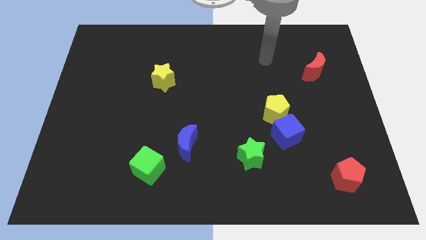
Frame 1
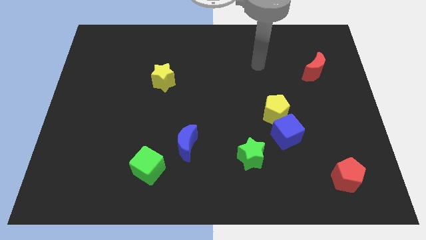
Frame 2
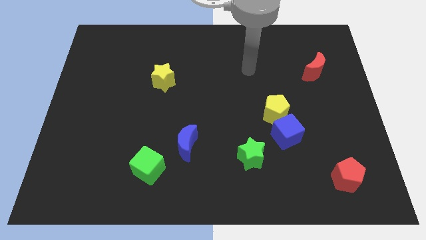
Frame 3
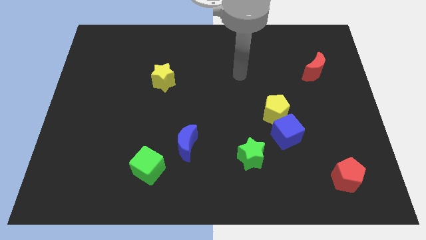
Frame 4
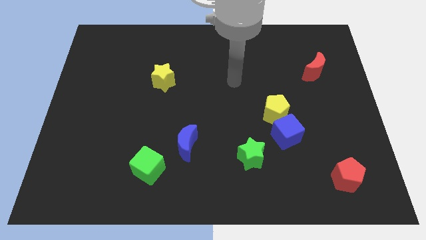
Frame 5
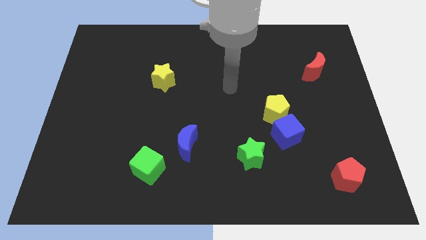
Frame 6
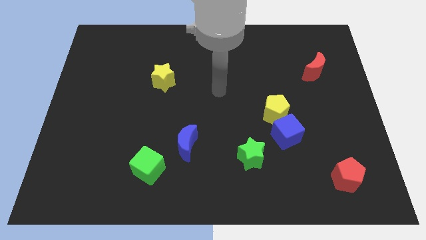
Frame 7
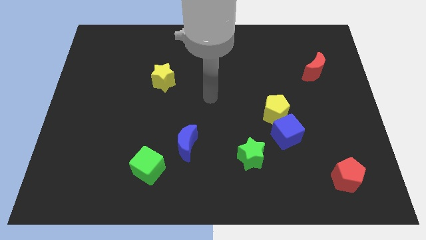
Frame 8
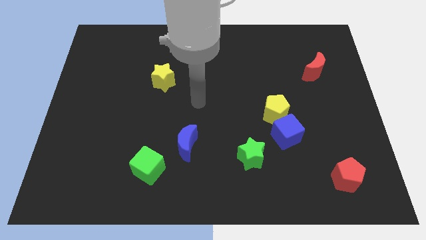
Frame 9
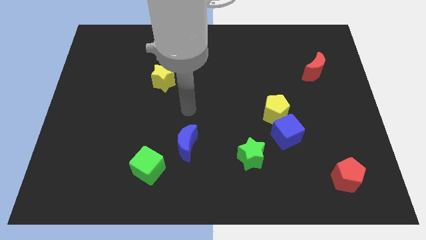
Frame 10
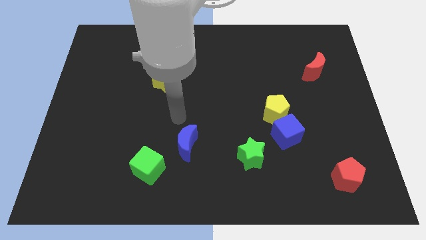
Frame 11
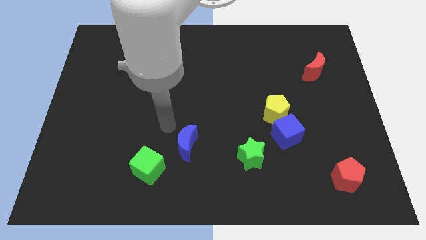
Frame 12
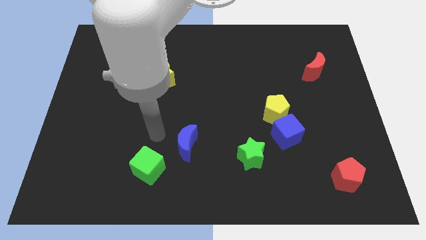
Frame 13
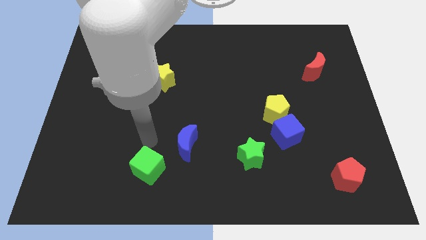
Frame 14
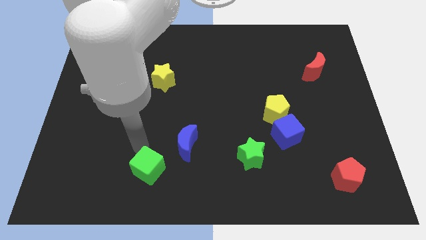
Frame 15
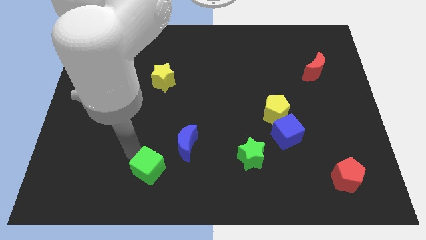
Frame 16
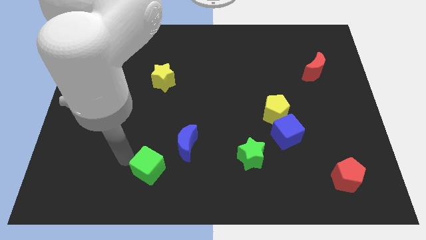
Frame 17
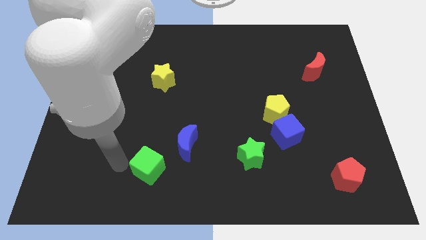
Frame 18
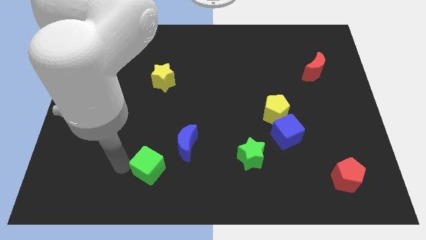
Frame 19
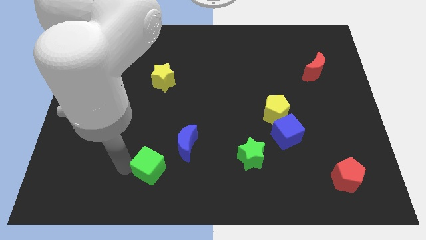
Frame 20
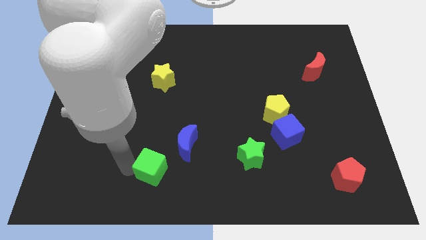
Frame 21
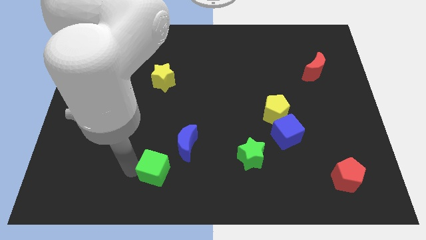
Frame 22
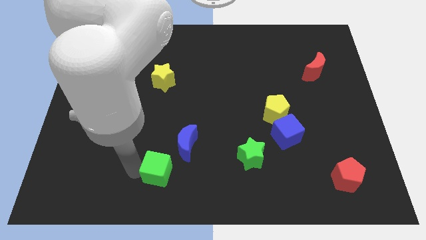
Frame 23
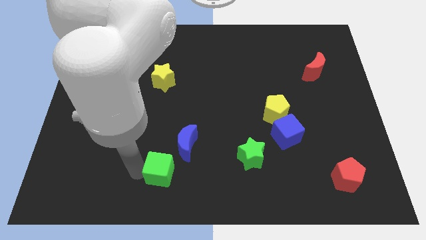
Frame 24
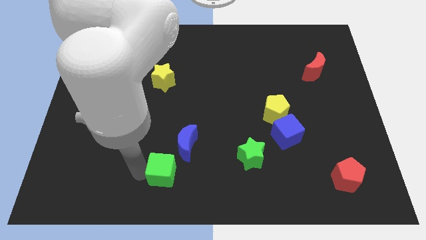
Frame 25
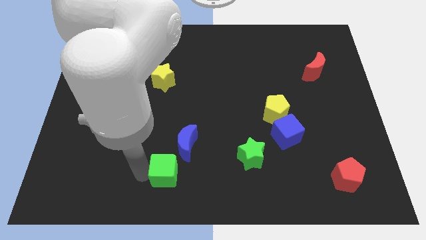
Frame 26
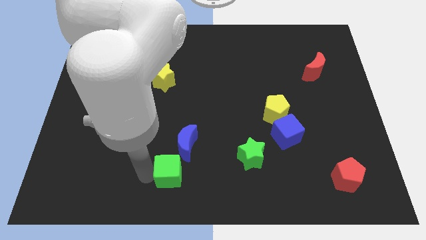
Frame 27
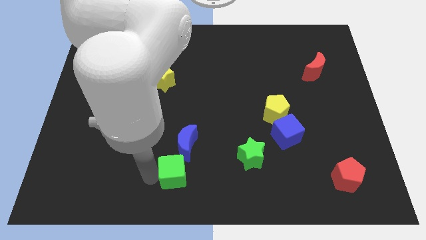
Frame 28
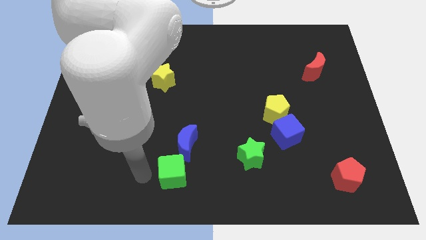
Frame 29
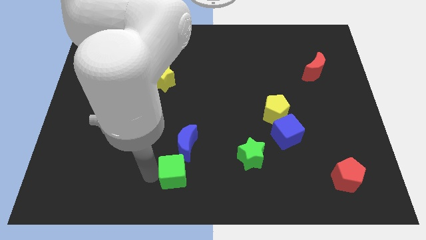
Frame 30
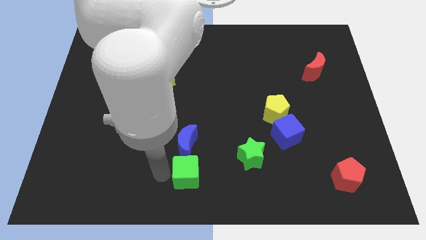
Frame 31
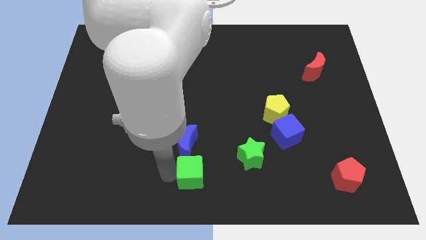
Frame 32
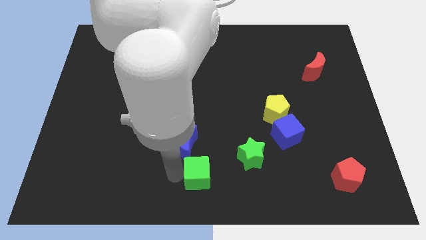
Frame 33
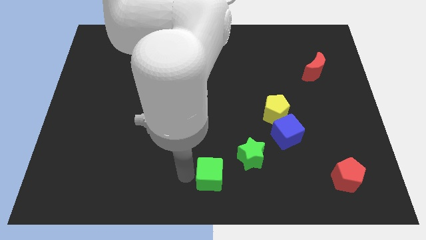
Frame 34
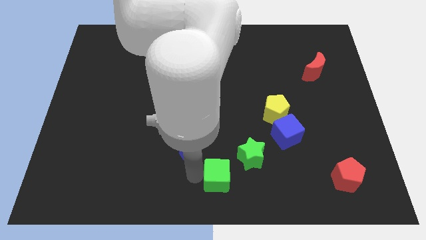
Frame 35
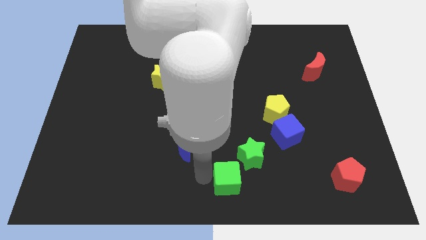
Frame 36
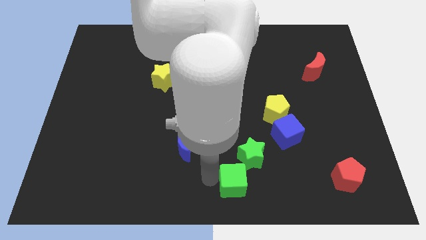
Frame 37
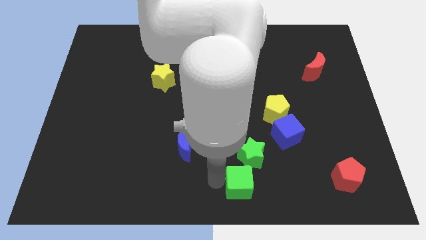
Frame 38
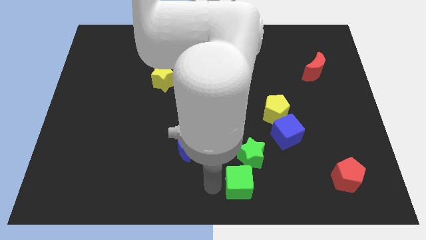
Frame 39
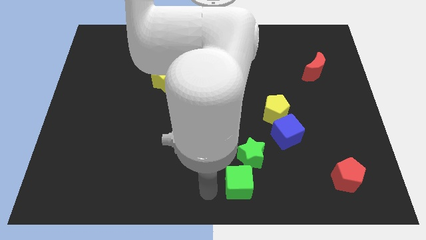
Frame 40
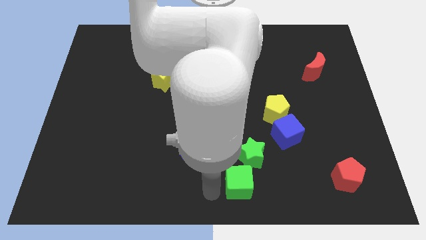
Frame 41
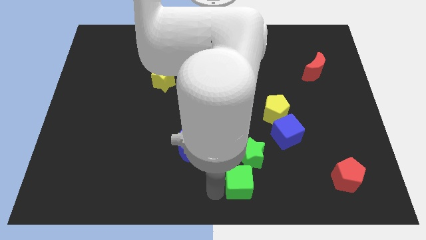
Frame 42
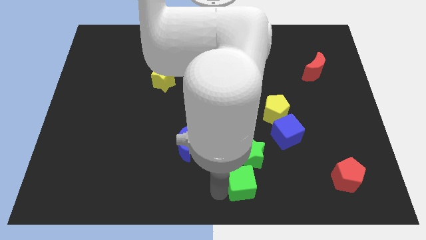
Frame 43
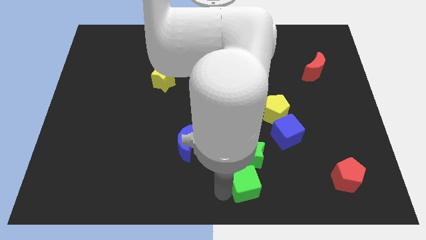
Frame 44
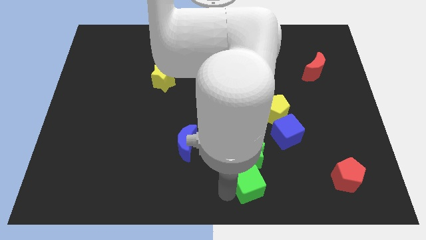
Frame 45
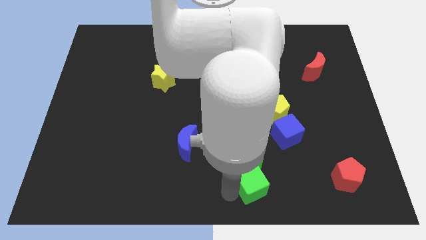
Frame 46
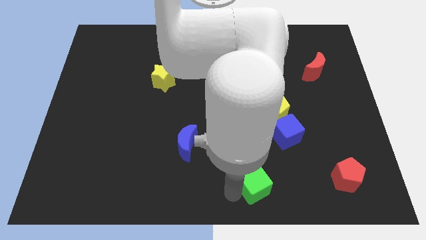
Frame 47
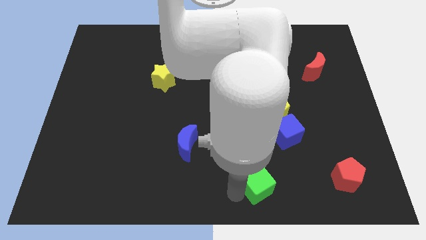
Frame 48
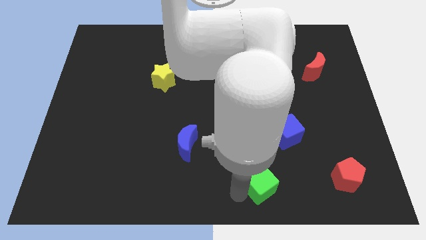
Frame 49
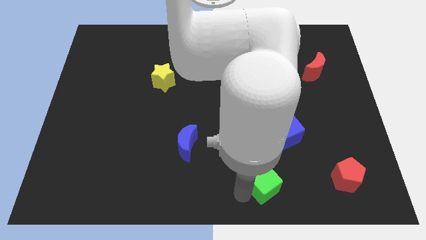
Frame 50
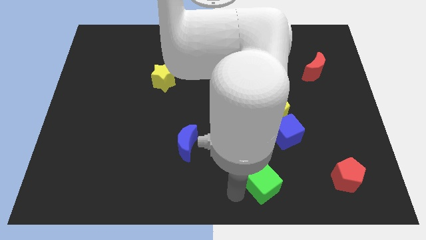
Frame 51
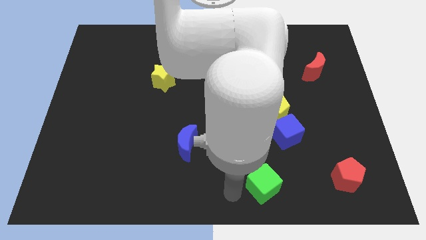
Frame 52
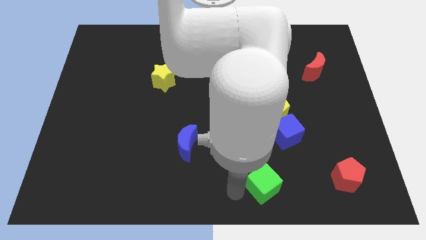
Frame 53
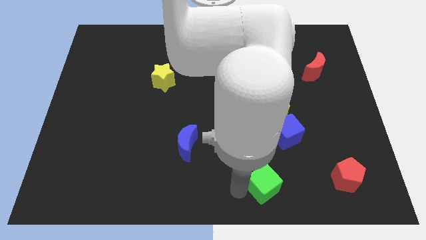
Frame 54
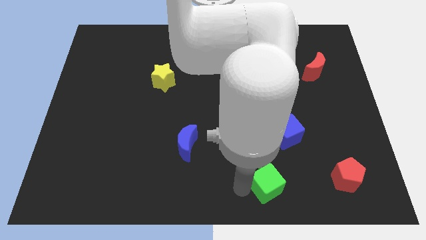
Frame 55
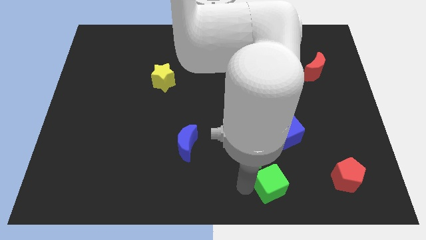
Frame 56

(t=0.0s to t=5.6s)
move the green cube left of the red pentagon

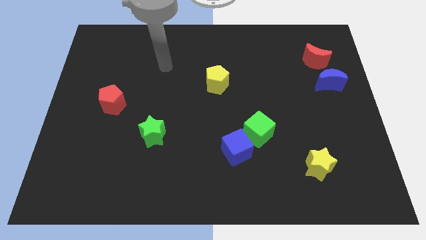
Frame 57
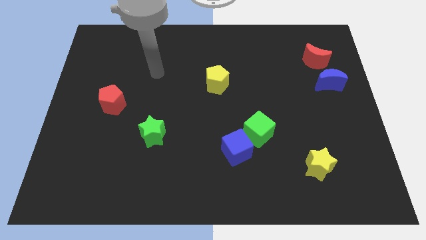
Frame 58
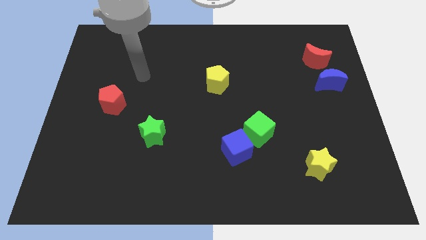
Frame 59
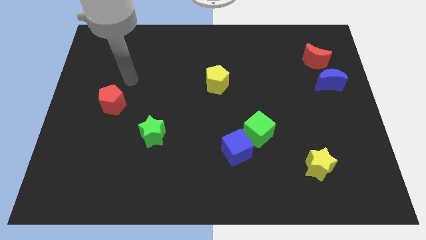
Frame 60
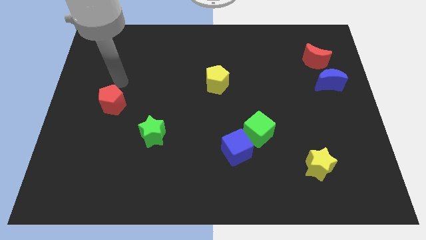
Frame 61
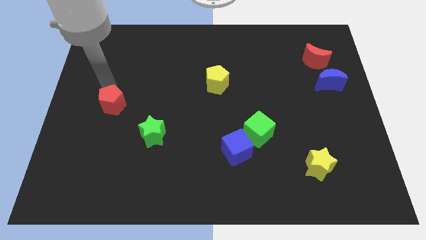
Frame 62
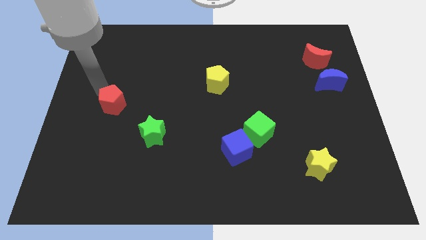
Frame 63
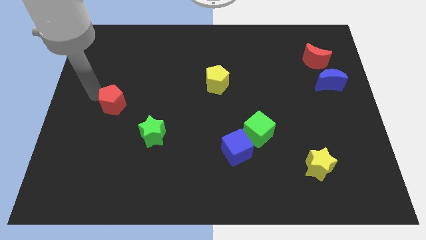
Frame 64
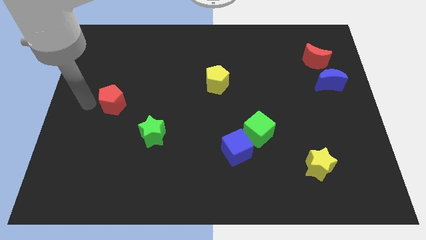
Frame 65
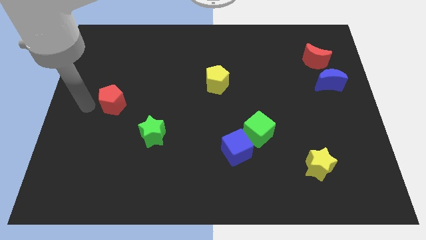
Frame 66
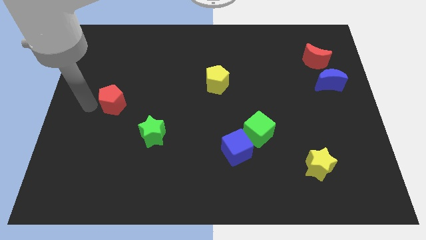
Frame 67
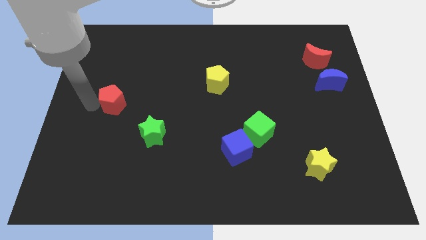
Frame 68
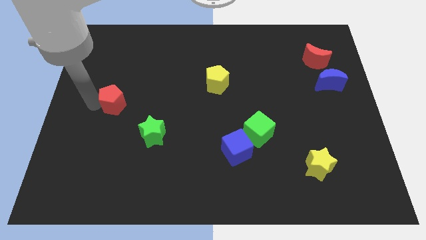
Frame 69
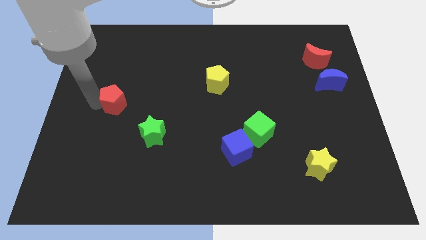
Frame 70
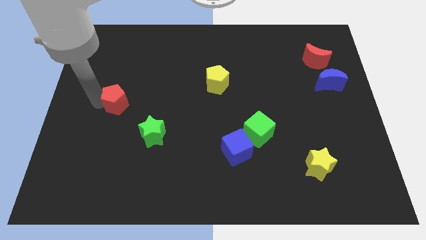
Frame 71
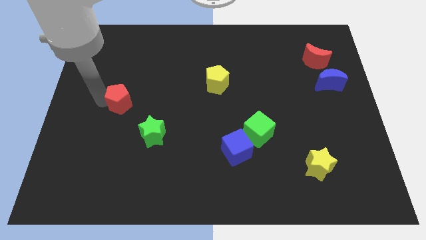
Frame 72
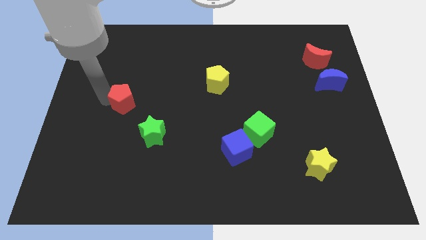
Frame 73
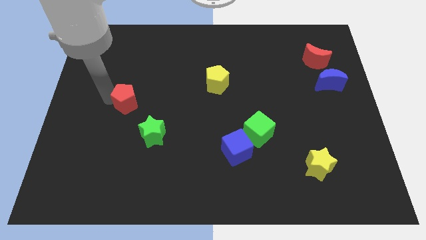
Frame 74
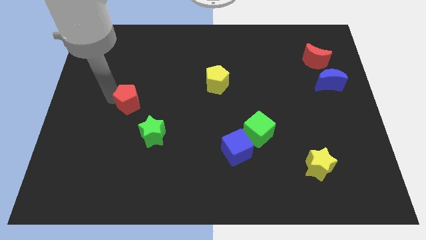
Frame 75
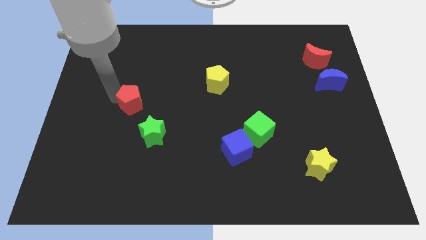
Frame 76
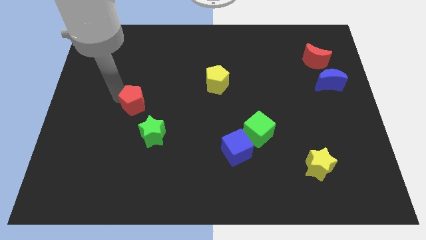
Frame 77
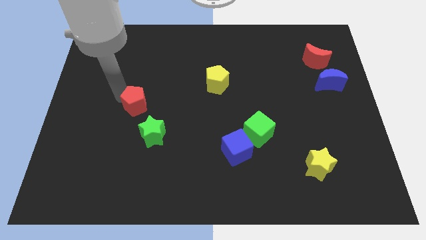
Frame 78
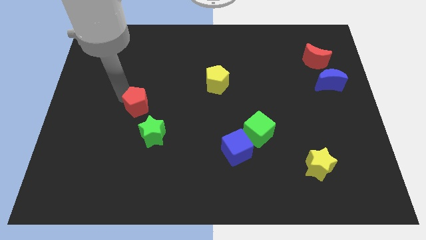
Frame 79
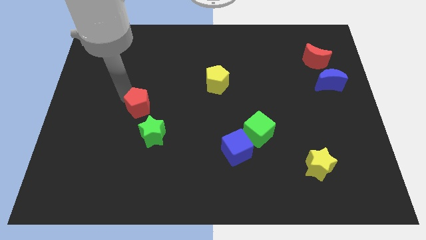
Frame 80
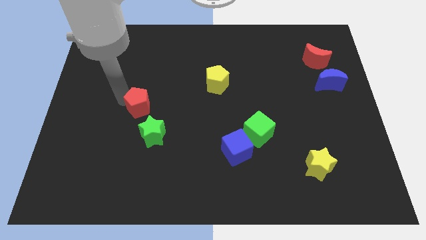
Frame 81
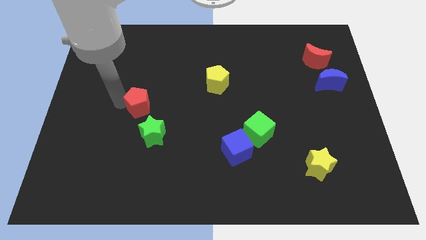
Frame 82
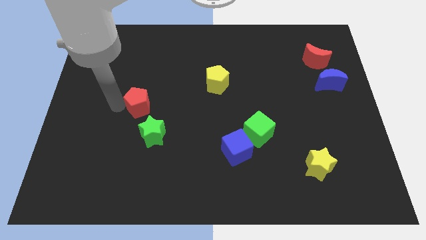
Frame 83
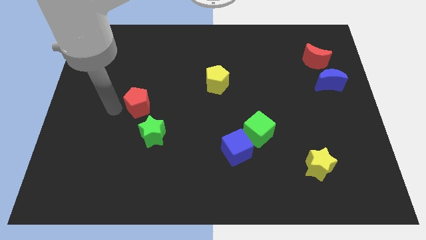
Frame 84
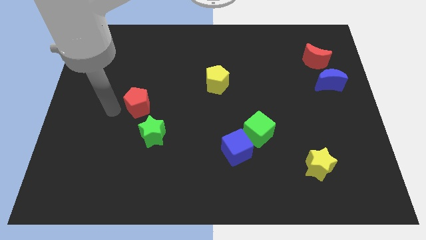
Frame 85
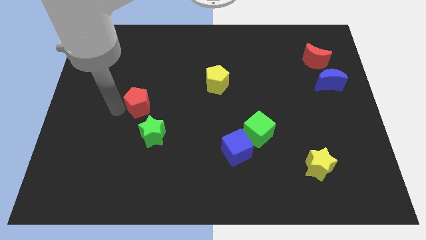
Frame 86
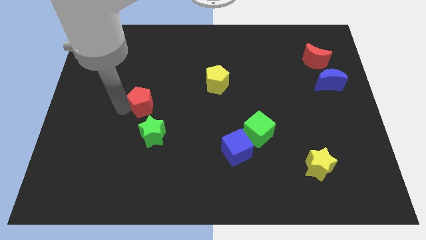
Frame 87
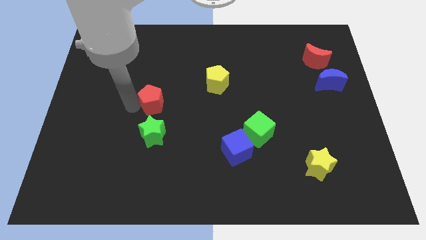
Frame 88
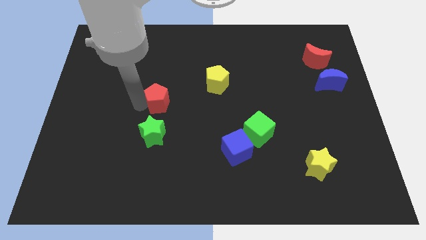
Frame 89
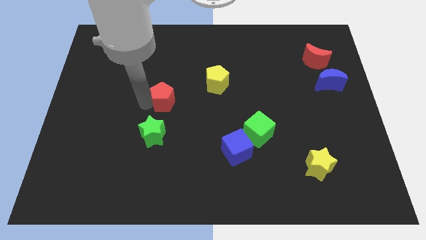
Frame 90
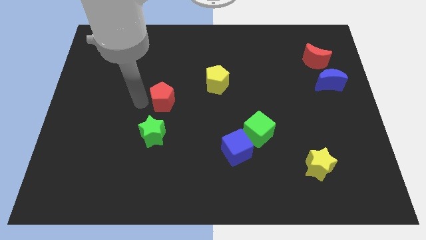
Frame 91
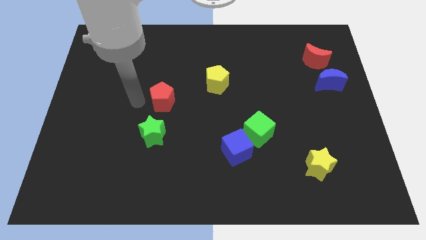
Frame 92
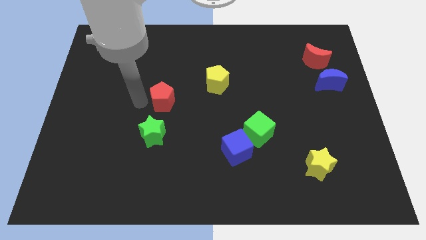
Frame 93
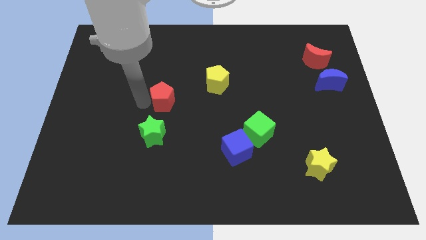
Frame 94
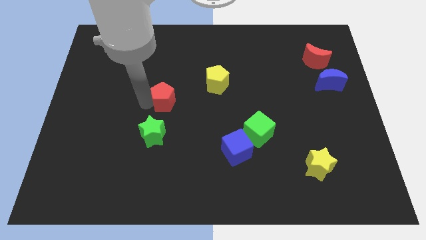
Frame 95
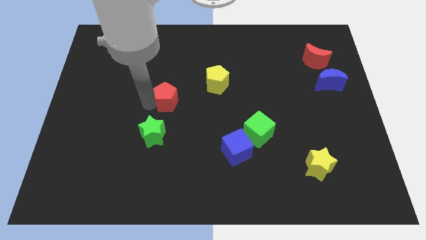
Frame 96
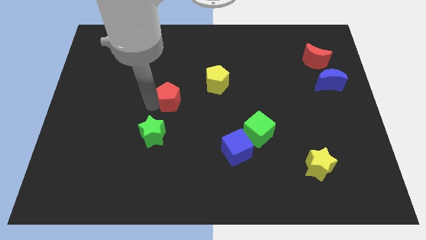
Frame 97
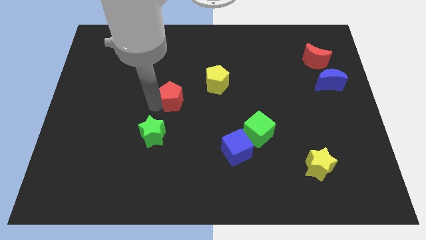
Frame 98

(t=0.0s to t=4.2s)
slide the red pentagon to the bottom left side of the yellow pentagon
